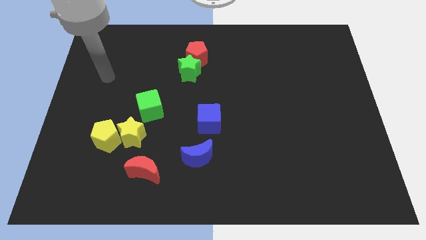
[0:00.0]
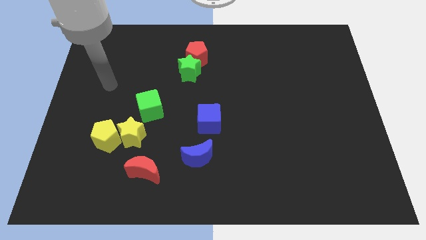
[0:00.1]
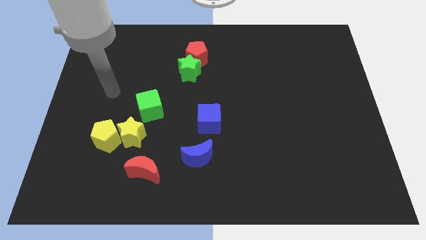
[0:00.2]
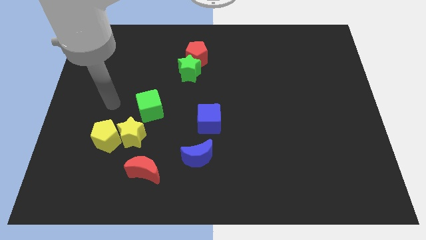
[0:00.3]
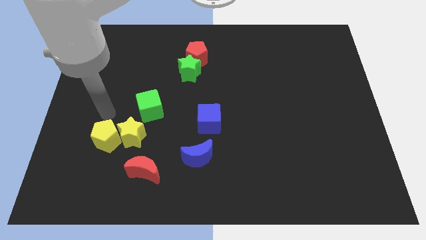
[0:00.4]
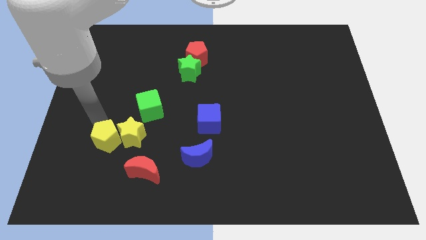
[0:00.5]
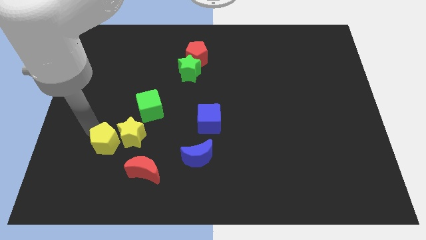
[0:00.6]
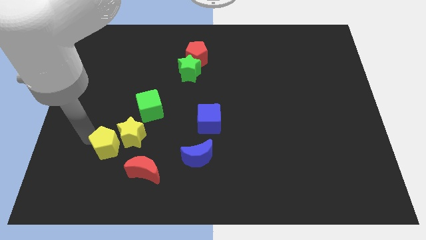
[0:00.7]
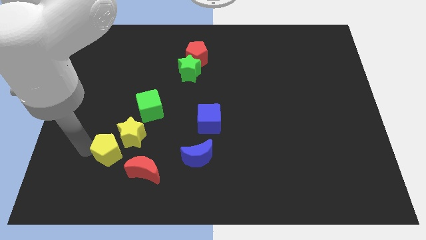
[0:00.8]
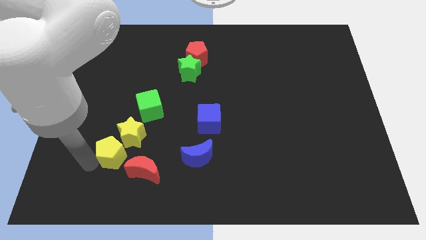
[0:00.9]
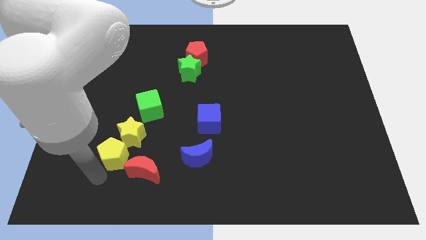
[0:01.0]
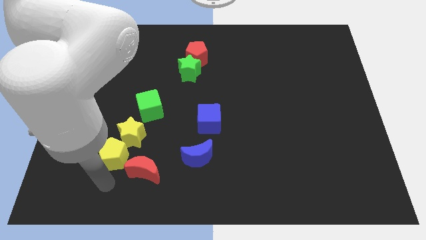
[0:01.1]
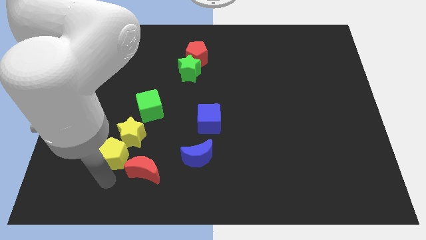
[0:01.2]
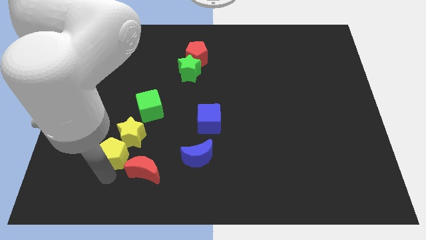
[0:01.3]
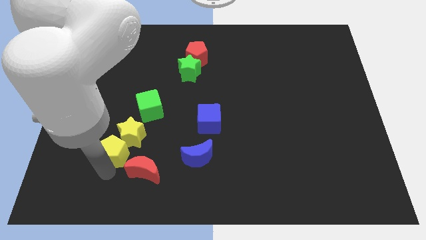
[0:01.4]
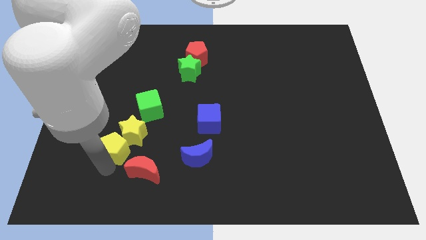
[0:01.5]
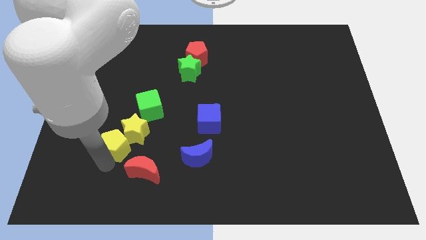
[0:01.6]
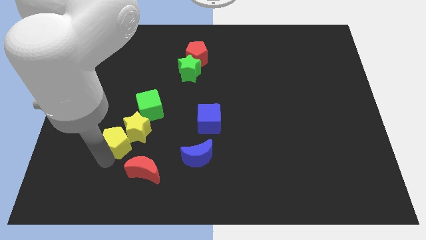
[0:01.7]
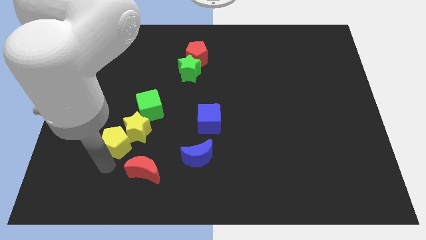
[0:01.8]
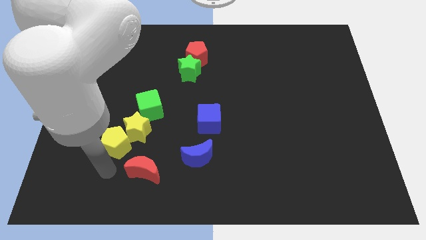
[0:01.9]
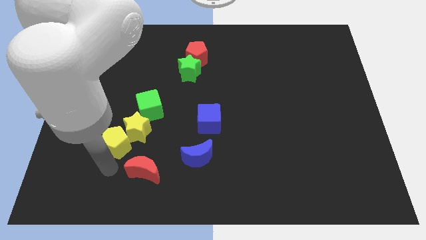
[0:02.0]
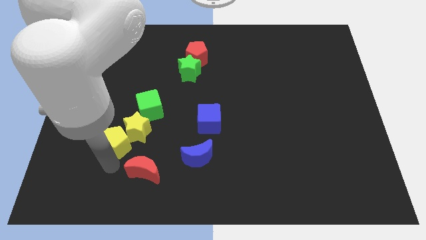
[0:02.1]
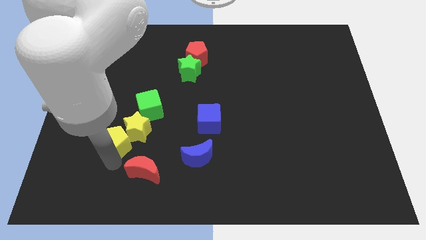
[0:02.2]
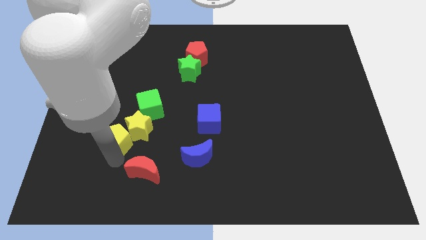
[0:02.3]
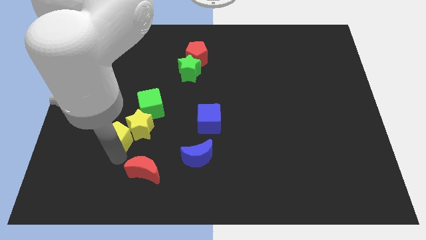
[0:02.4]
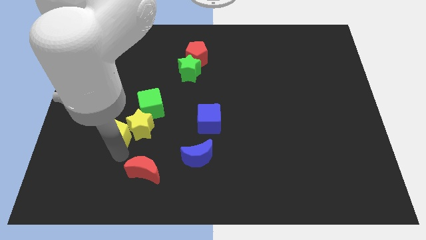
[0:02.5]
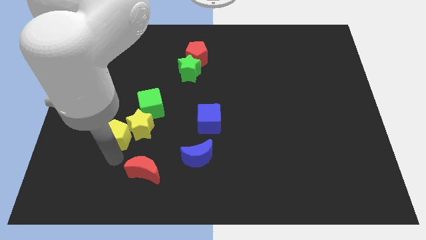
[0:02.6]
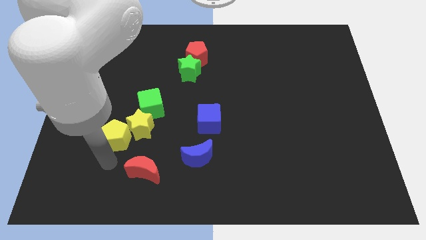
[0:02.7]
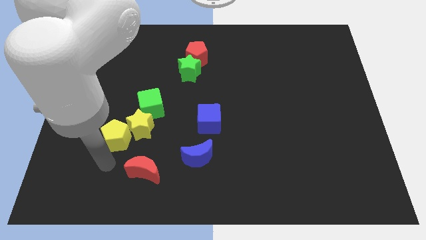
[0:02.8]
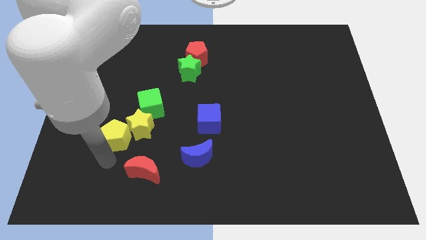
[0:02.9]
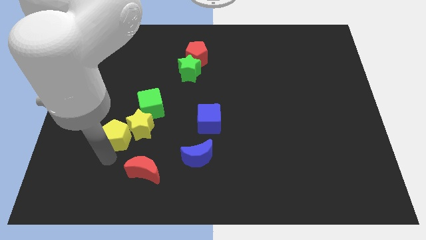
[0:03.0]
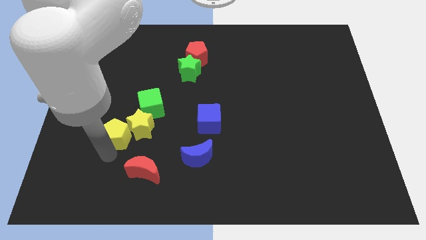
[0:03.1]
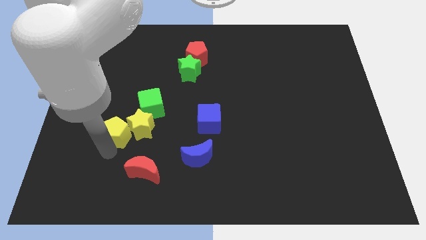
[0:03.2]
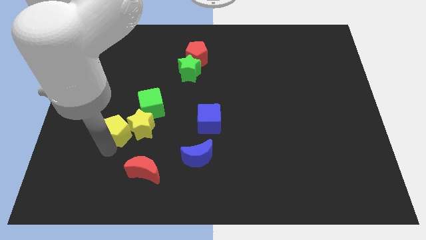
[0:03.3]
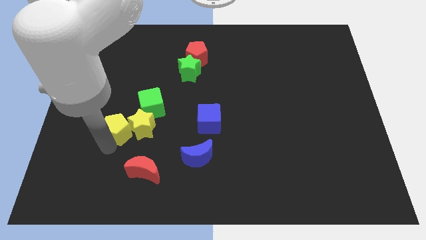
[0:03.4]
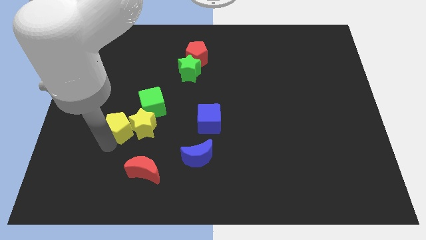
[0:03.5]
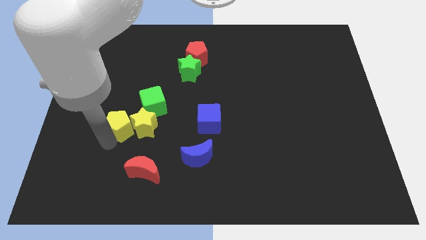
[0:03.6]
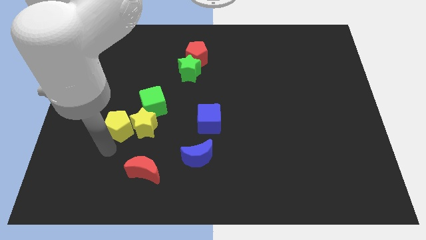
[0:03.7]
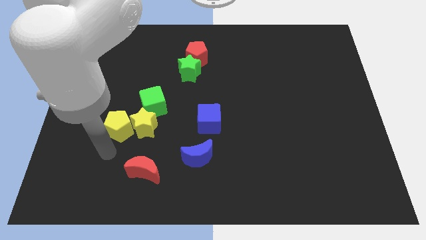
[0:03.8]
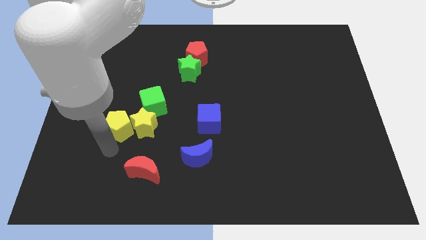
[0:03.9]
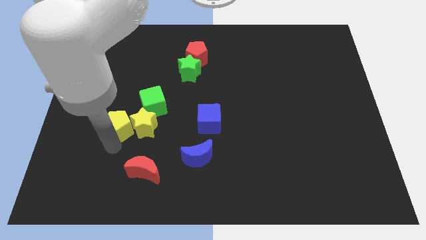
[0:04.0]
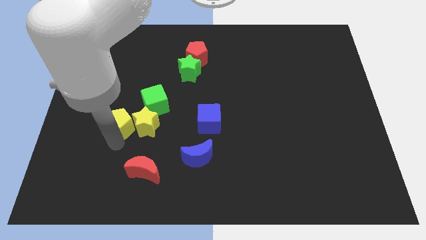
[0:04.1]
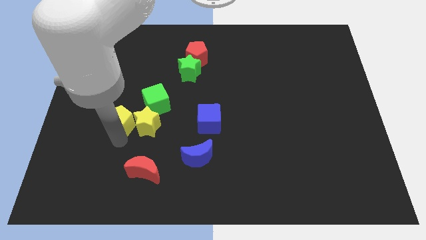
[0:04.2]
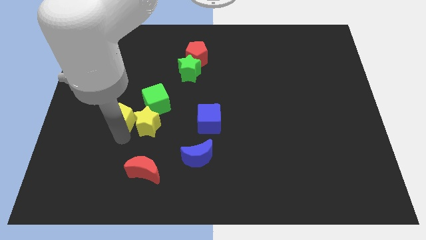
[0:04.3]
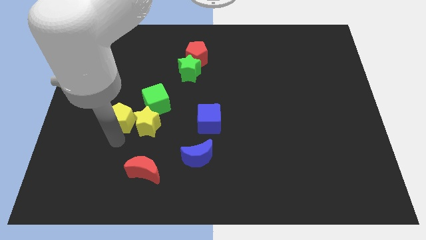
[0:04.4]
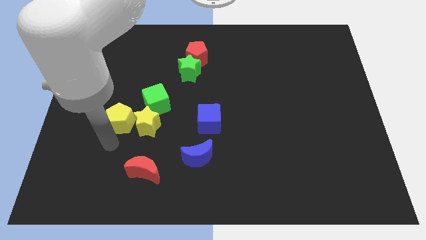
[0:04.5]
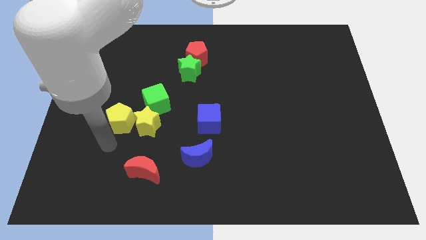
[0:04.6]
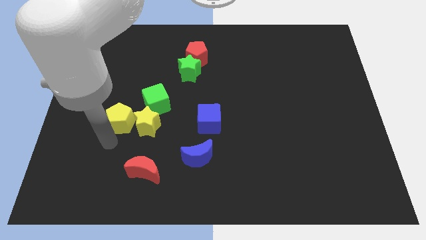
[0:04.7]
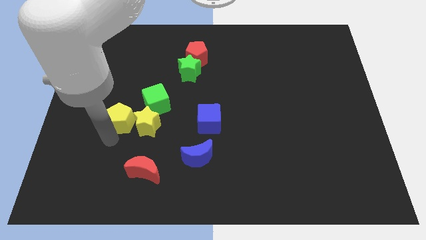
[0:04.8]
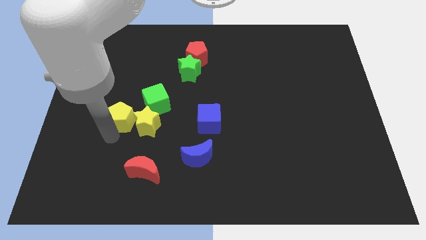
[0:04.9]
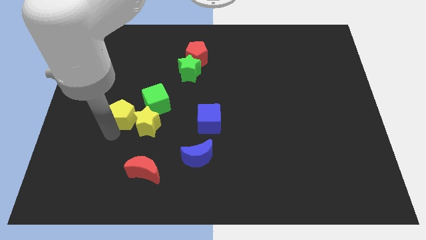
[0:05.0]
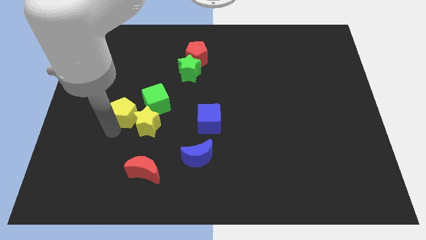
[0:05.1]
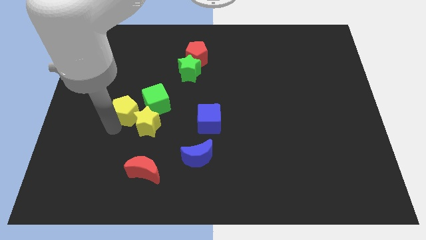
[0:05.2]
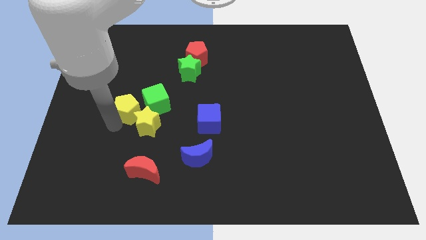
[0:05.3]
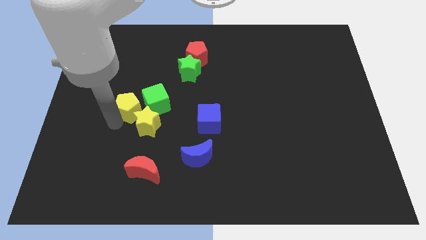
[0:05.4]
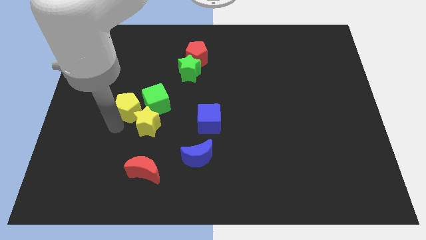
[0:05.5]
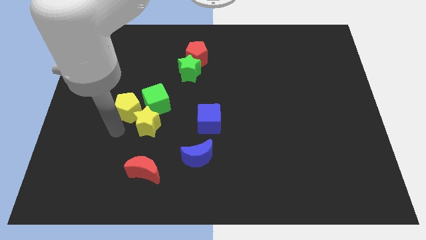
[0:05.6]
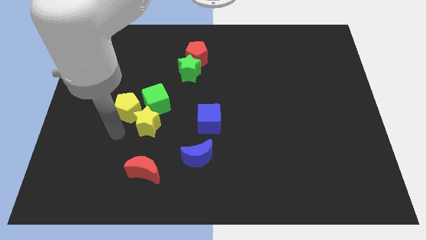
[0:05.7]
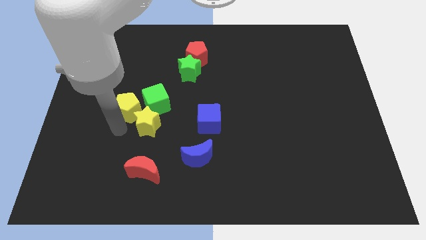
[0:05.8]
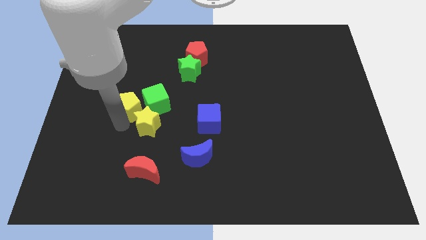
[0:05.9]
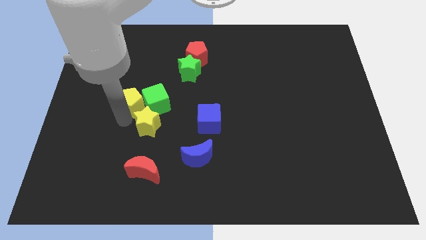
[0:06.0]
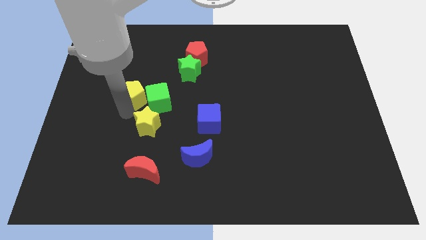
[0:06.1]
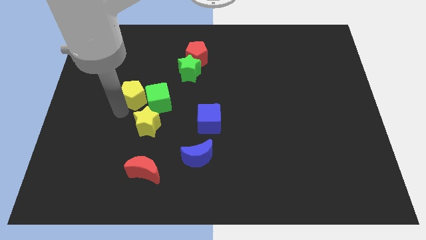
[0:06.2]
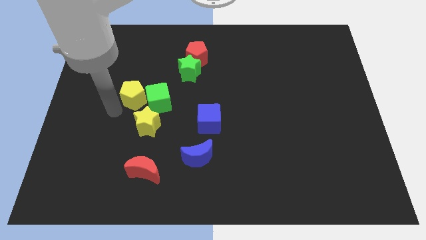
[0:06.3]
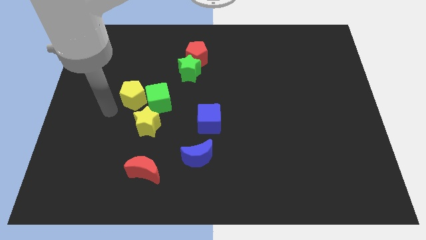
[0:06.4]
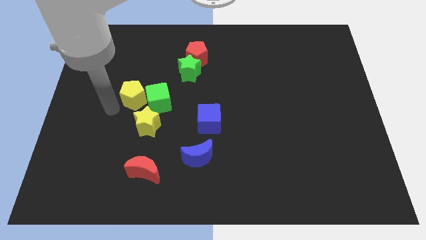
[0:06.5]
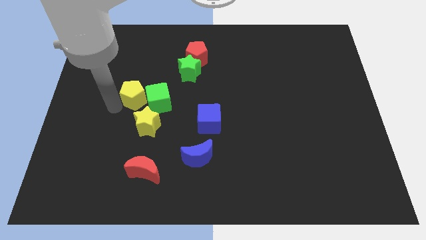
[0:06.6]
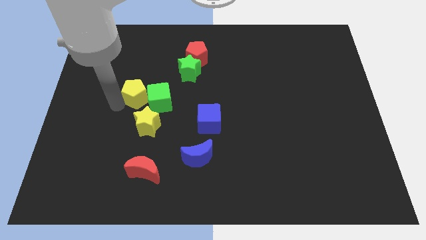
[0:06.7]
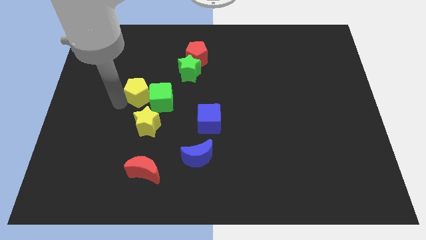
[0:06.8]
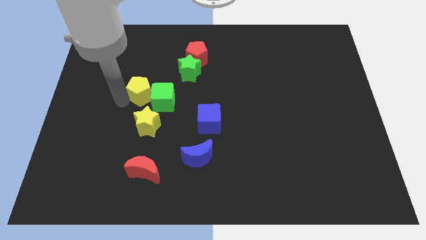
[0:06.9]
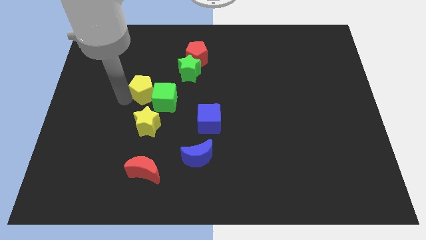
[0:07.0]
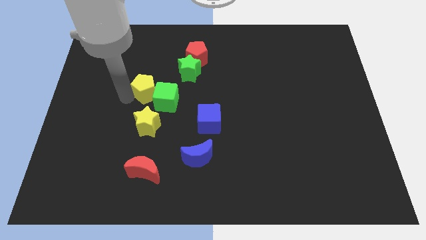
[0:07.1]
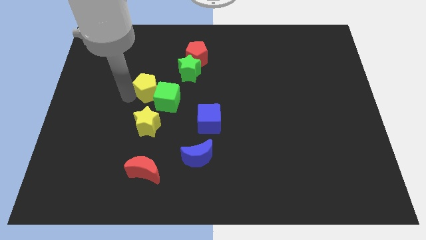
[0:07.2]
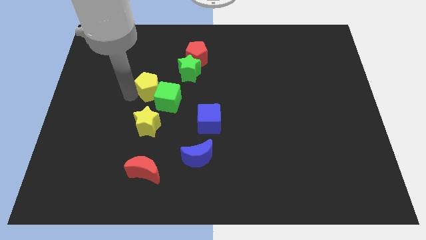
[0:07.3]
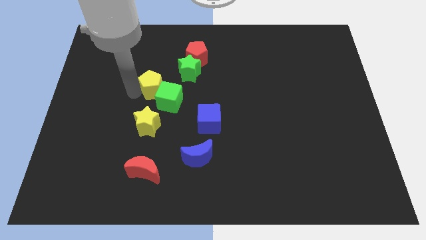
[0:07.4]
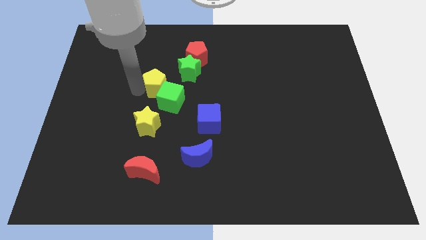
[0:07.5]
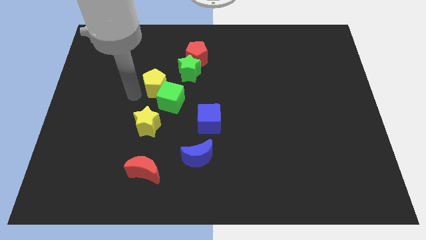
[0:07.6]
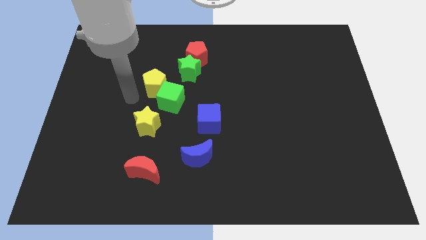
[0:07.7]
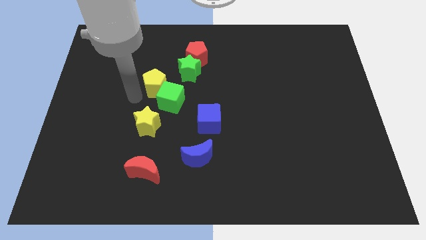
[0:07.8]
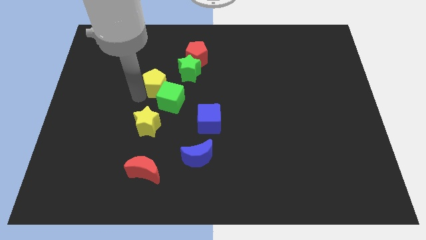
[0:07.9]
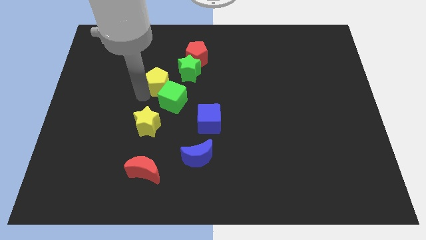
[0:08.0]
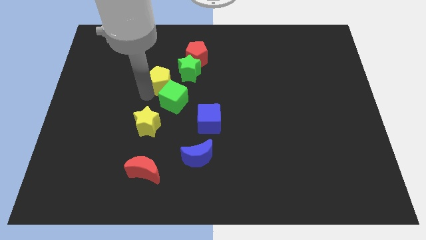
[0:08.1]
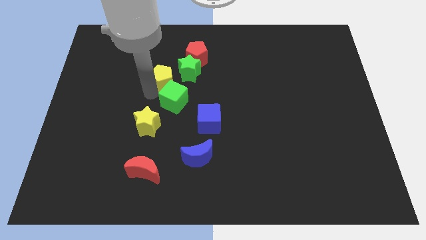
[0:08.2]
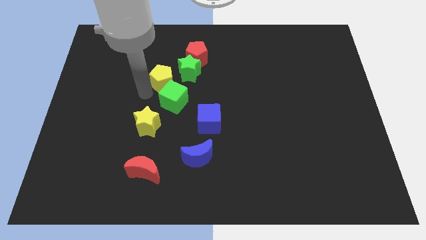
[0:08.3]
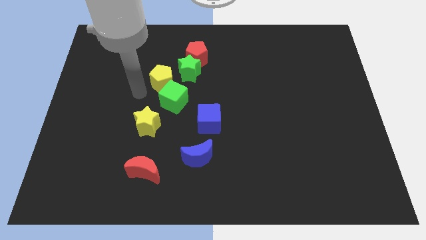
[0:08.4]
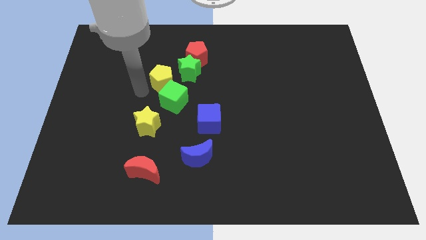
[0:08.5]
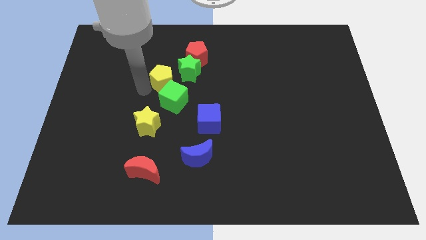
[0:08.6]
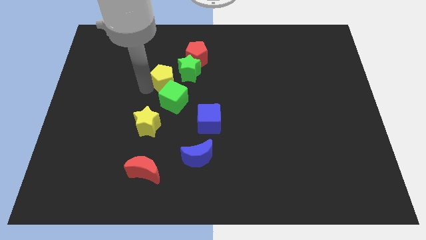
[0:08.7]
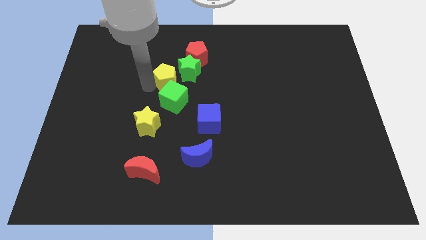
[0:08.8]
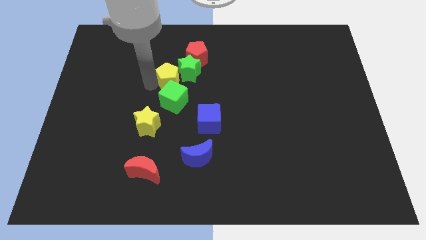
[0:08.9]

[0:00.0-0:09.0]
move the yellow pentagon to the green star
